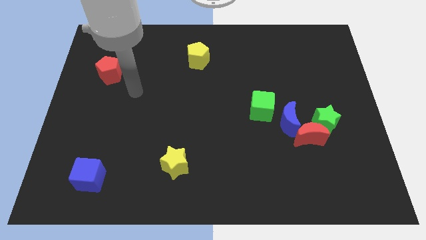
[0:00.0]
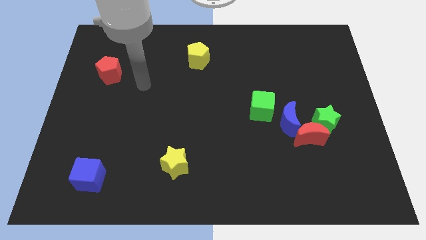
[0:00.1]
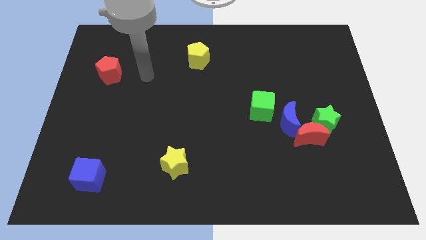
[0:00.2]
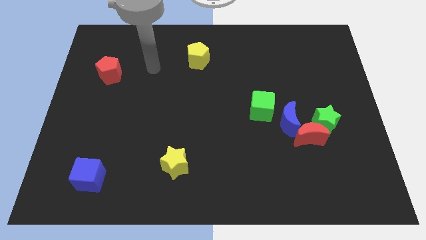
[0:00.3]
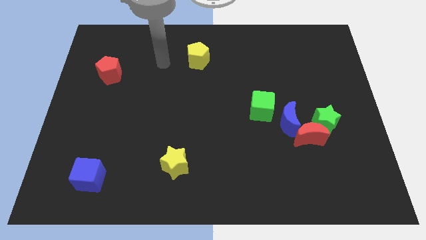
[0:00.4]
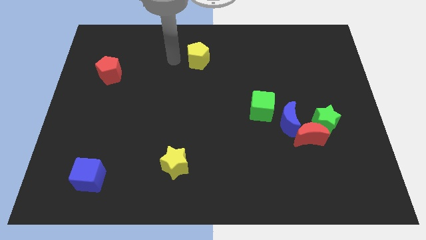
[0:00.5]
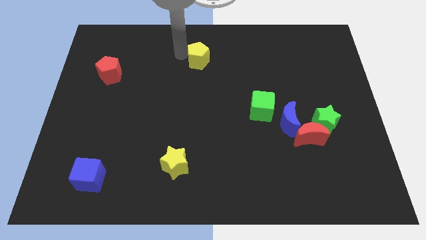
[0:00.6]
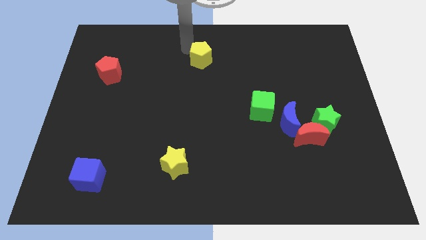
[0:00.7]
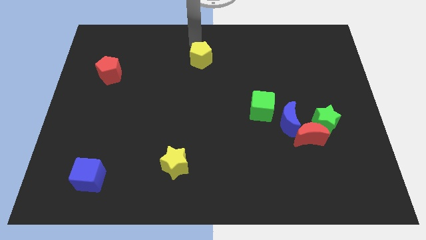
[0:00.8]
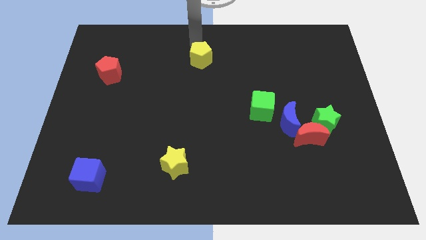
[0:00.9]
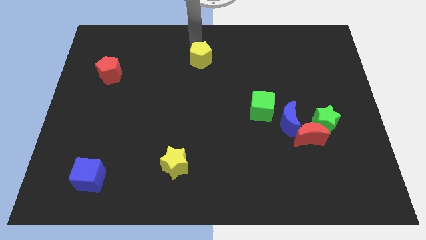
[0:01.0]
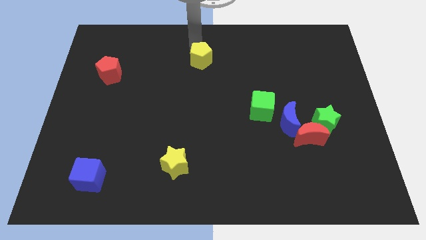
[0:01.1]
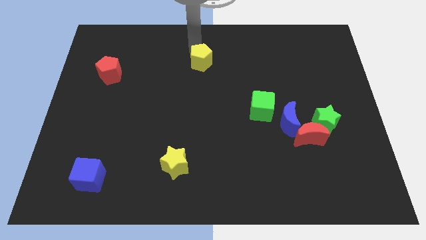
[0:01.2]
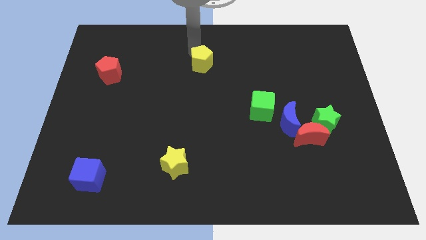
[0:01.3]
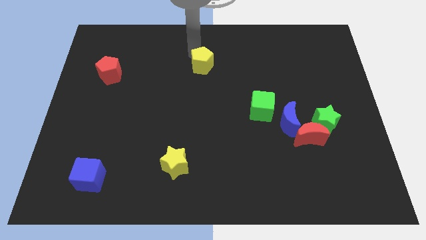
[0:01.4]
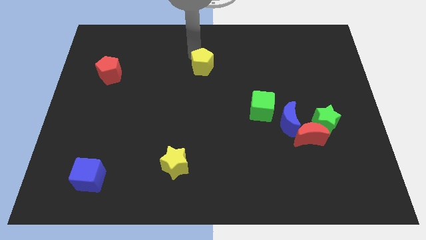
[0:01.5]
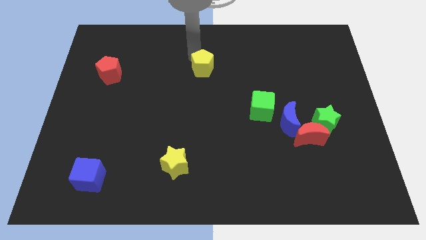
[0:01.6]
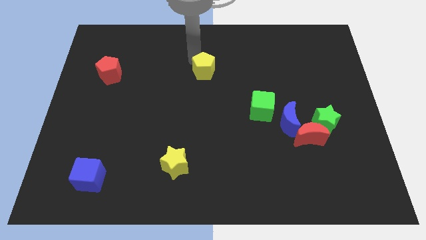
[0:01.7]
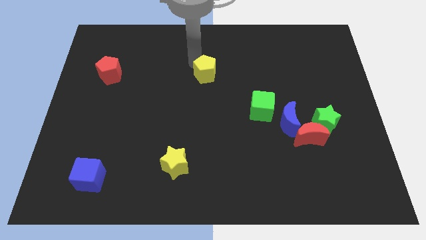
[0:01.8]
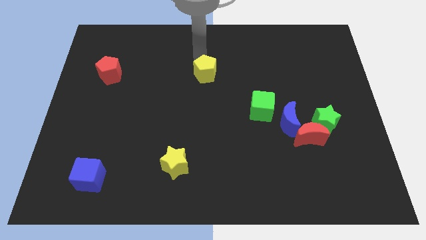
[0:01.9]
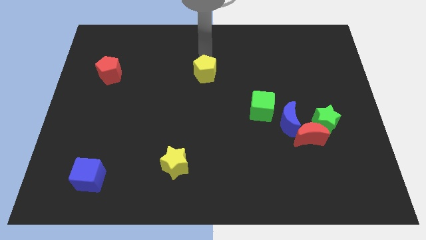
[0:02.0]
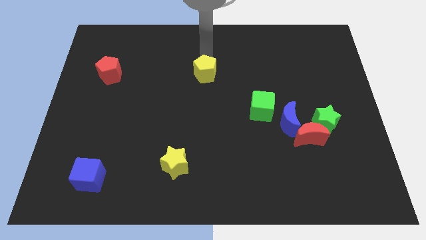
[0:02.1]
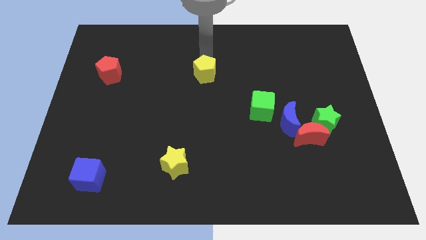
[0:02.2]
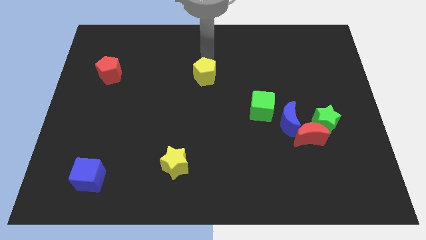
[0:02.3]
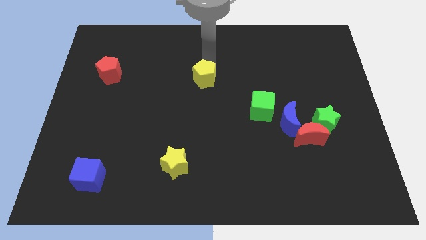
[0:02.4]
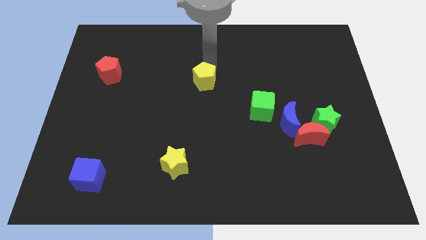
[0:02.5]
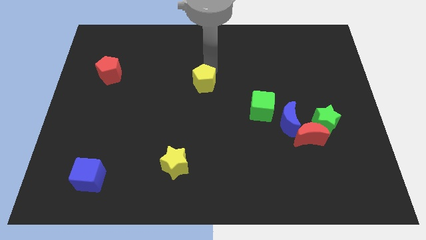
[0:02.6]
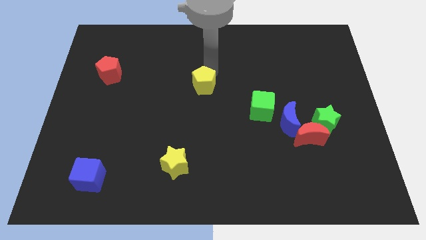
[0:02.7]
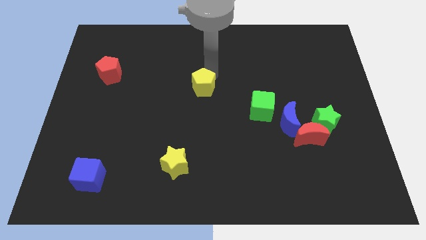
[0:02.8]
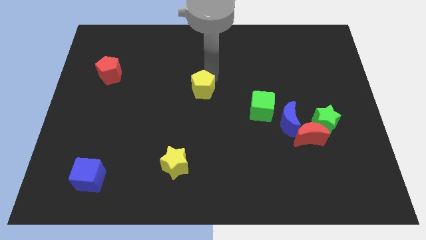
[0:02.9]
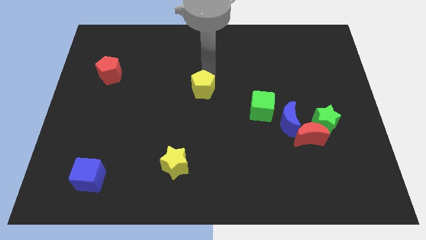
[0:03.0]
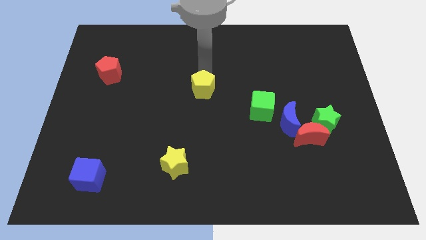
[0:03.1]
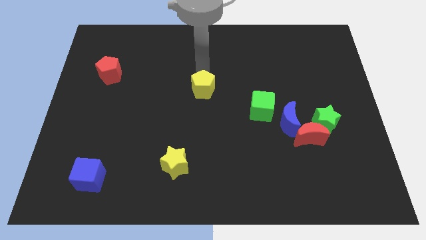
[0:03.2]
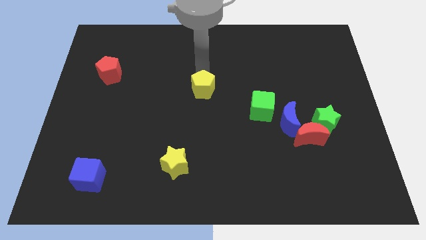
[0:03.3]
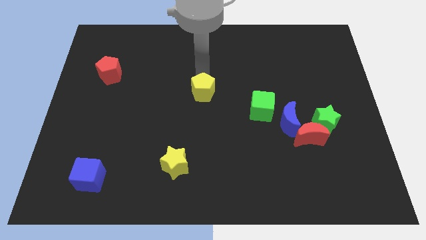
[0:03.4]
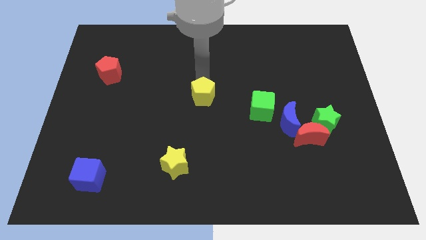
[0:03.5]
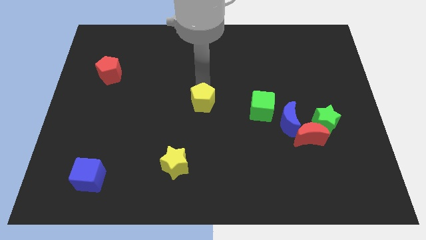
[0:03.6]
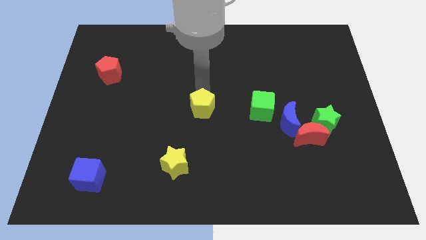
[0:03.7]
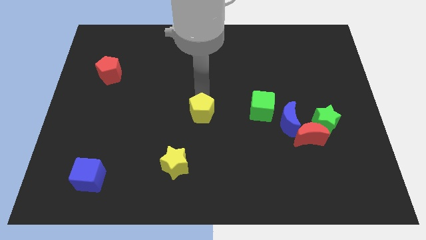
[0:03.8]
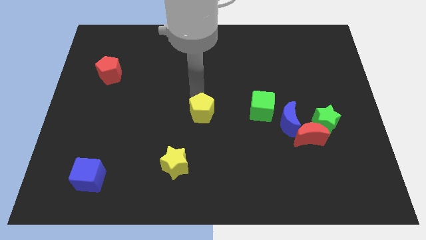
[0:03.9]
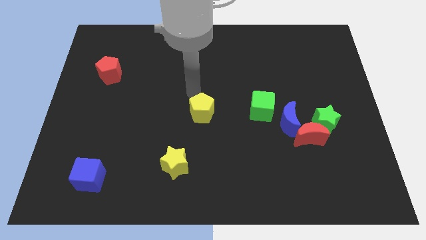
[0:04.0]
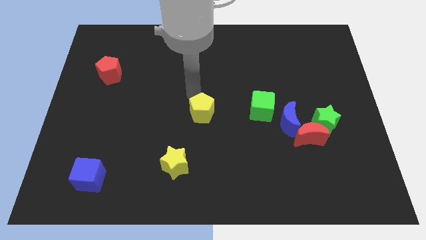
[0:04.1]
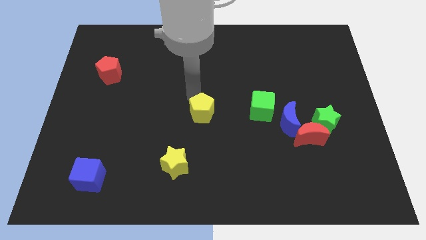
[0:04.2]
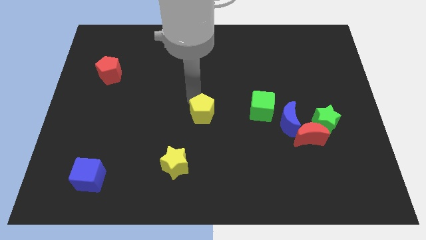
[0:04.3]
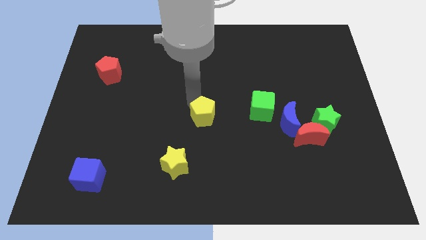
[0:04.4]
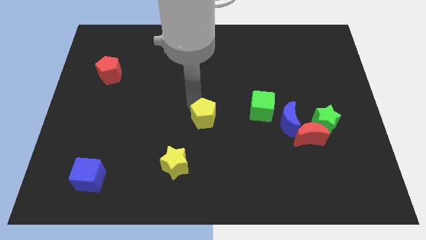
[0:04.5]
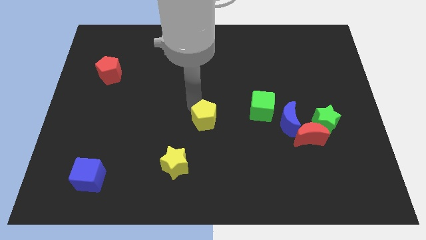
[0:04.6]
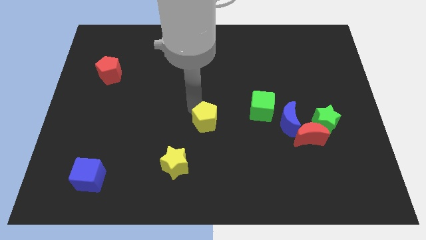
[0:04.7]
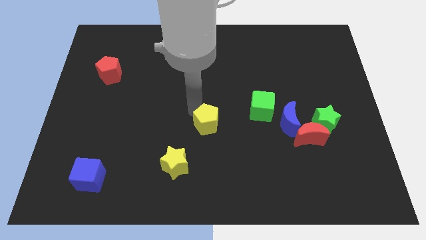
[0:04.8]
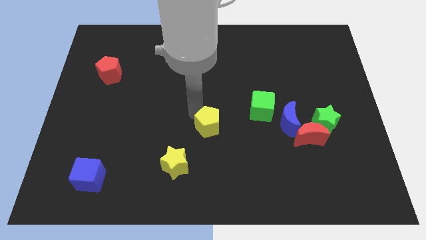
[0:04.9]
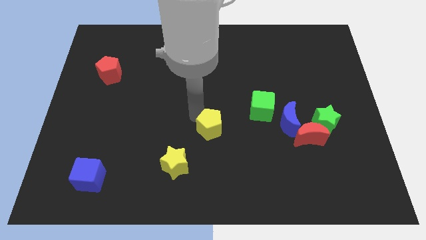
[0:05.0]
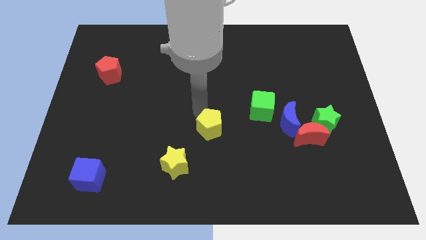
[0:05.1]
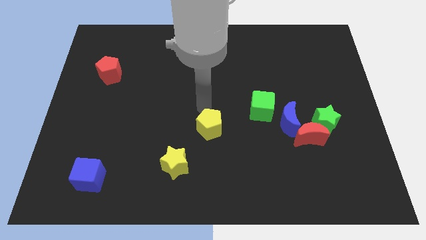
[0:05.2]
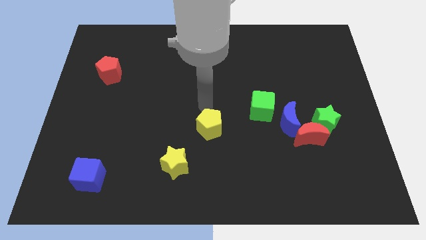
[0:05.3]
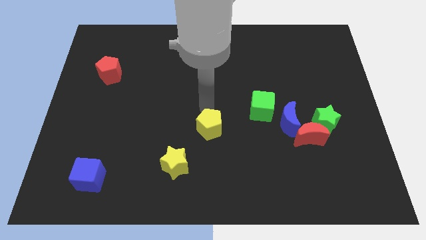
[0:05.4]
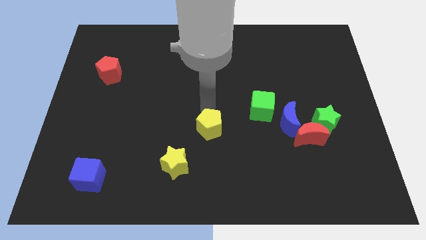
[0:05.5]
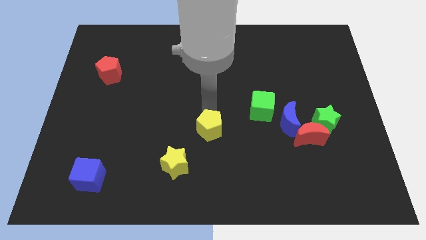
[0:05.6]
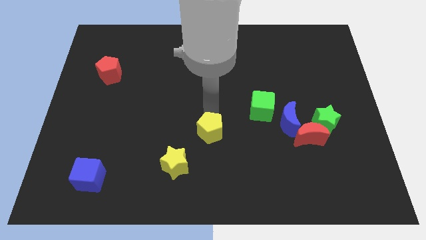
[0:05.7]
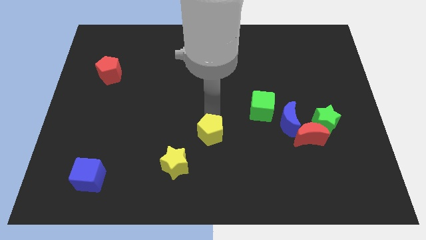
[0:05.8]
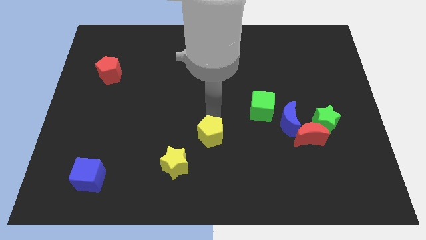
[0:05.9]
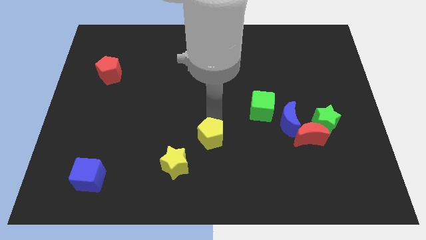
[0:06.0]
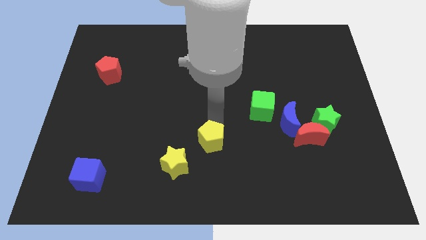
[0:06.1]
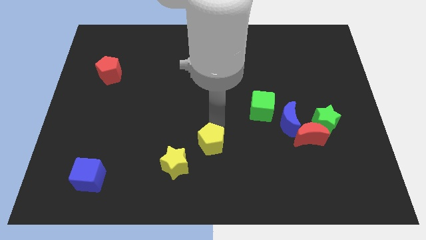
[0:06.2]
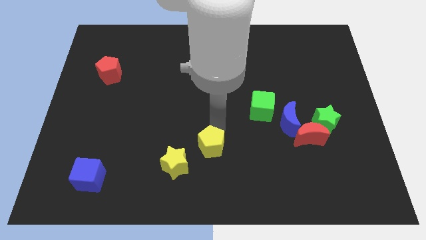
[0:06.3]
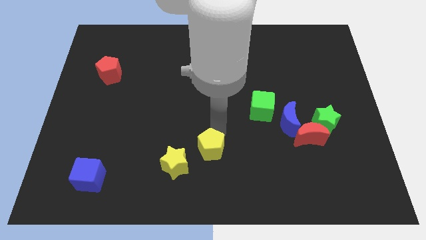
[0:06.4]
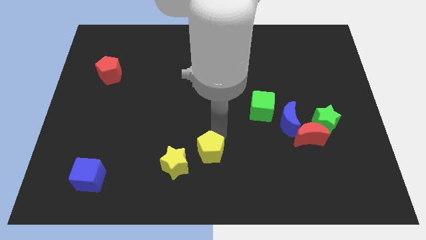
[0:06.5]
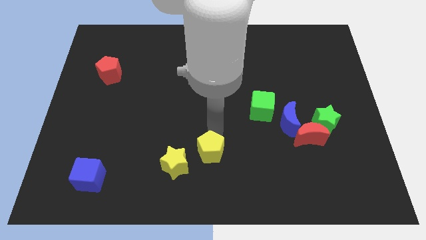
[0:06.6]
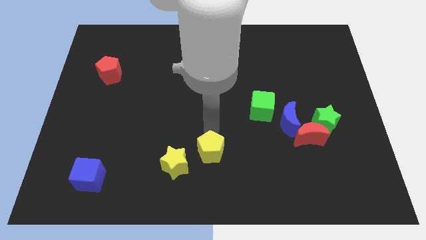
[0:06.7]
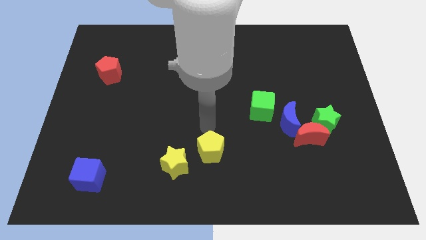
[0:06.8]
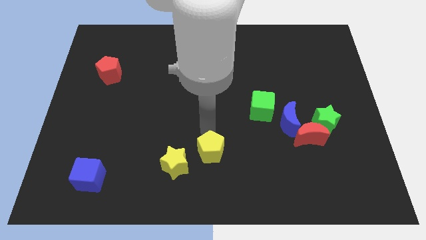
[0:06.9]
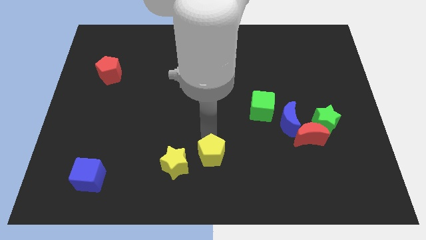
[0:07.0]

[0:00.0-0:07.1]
move the yellow pentagon to the bottom
